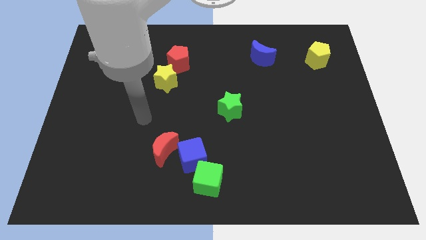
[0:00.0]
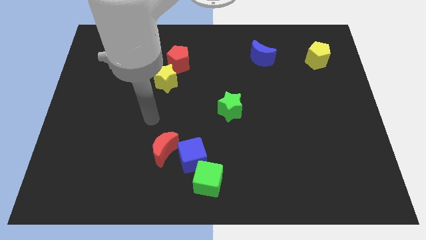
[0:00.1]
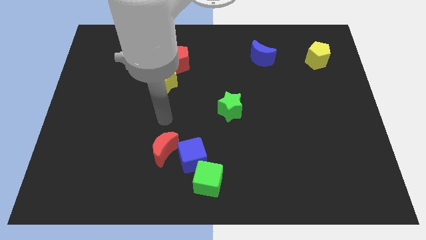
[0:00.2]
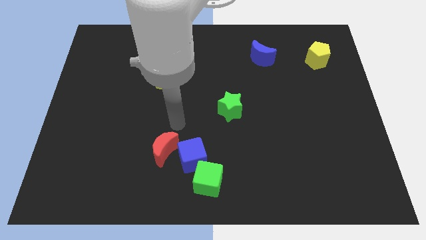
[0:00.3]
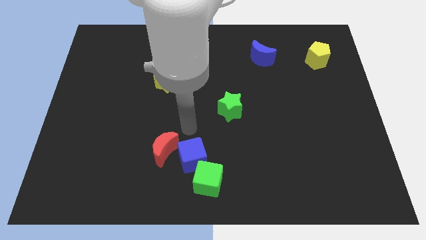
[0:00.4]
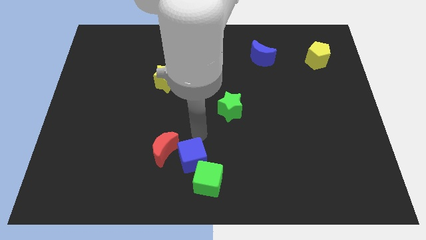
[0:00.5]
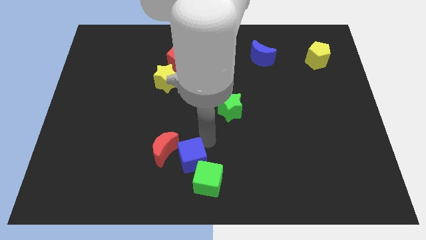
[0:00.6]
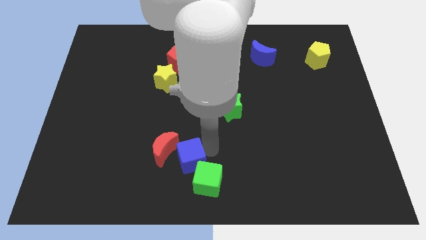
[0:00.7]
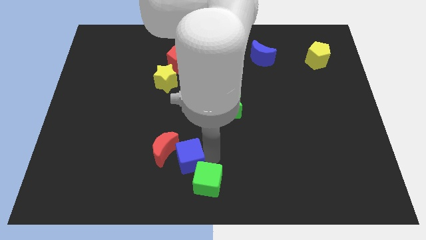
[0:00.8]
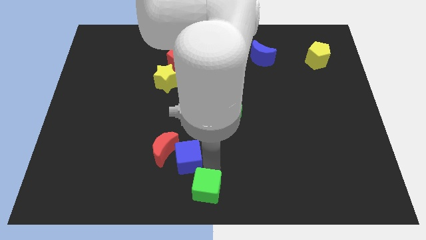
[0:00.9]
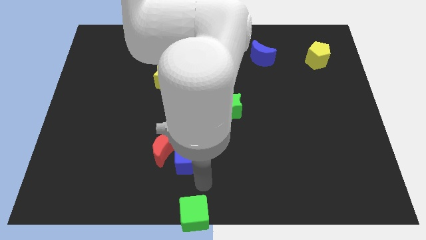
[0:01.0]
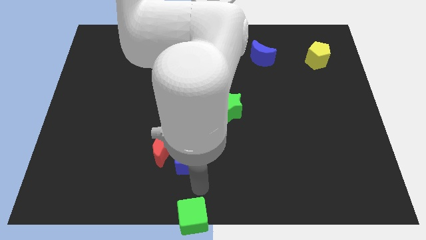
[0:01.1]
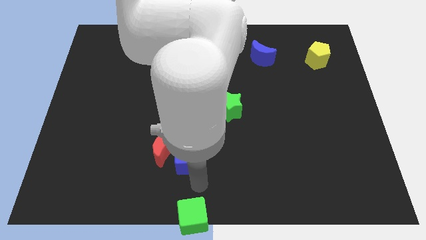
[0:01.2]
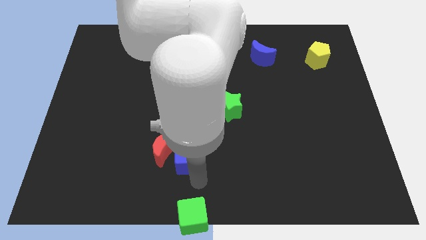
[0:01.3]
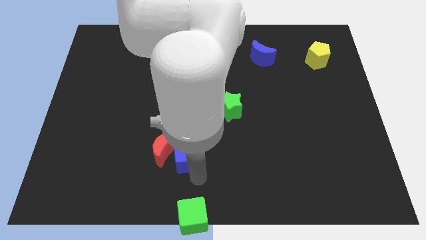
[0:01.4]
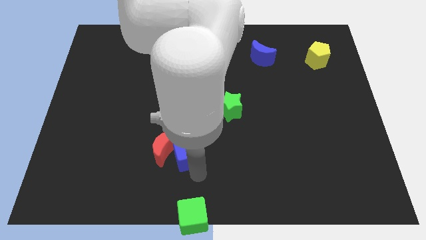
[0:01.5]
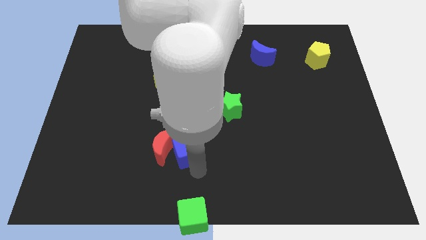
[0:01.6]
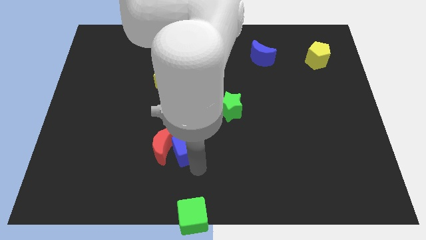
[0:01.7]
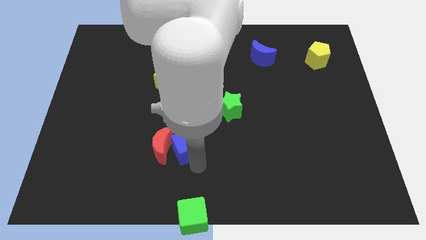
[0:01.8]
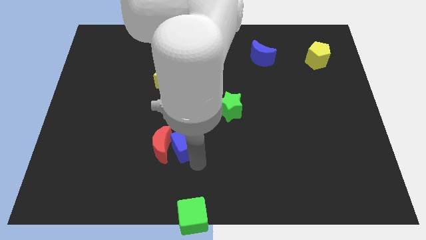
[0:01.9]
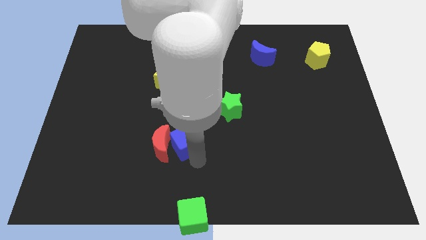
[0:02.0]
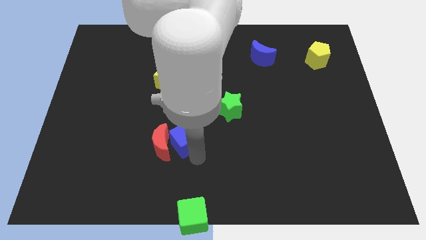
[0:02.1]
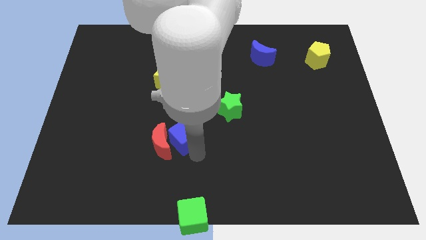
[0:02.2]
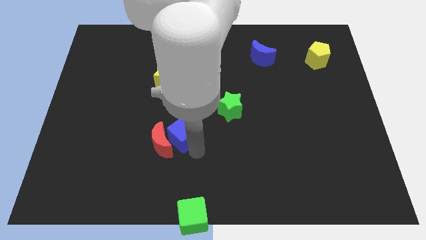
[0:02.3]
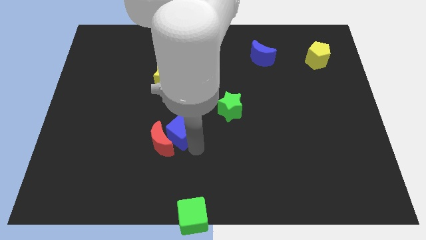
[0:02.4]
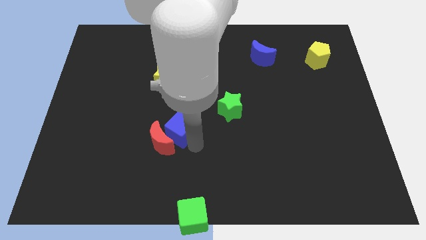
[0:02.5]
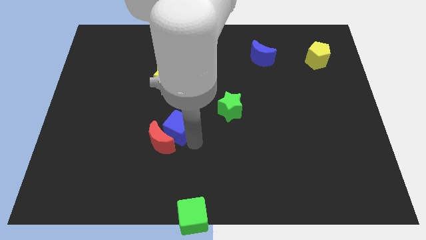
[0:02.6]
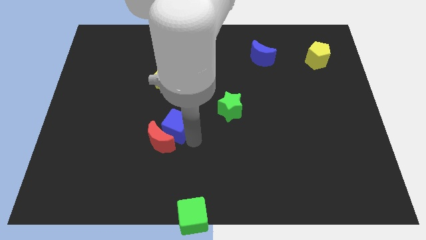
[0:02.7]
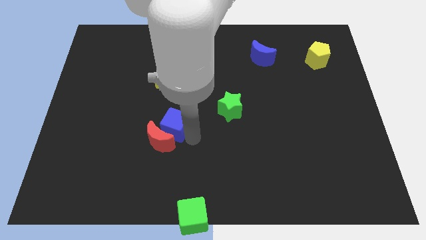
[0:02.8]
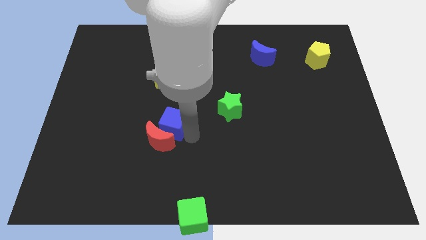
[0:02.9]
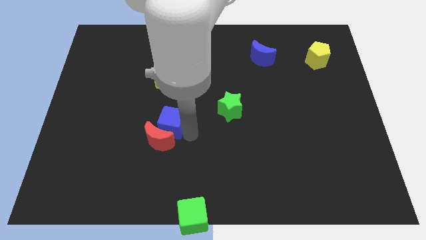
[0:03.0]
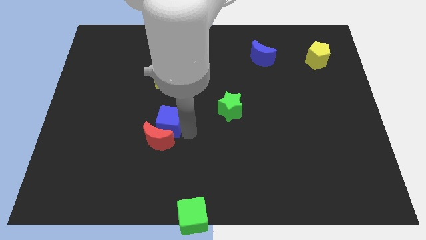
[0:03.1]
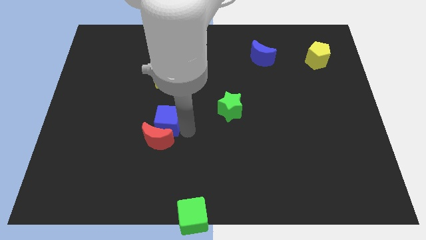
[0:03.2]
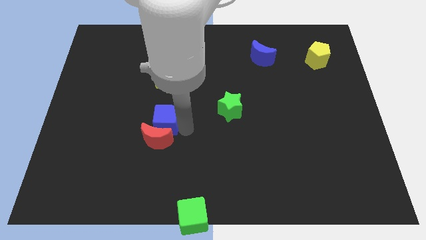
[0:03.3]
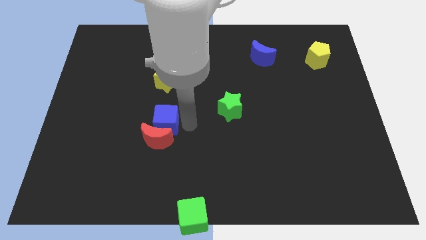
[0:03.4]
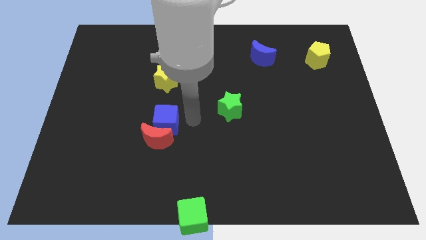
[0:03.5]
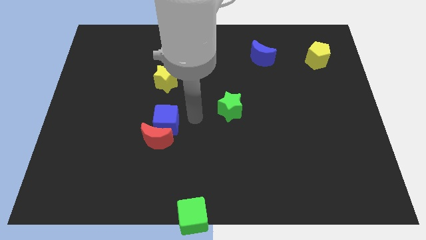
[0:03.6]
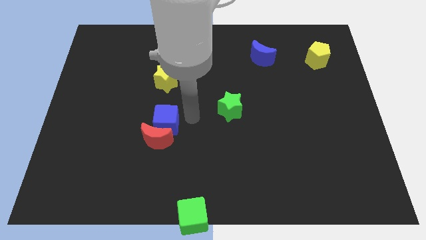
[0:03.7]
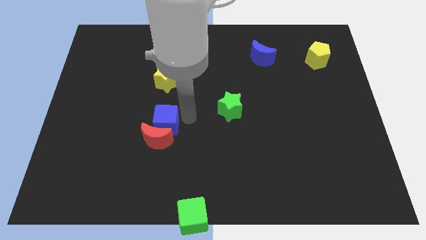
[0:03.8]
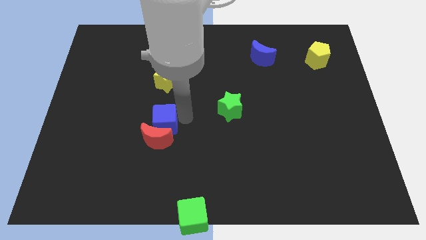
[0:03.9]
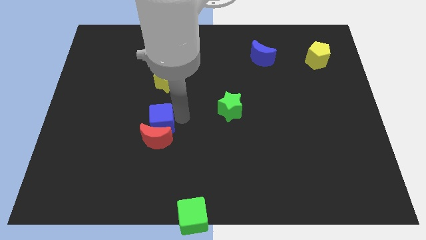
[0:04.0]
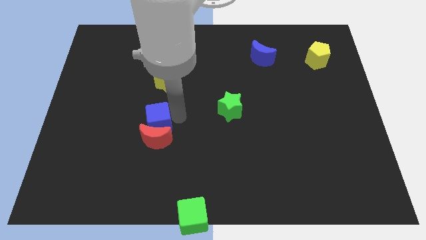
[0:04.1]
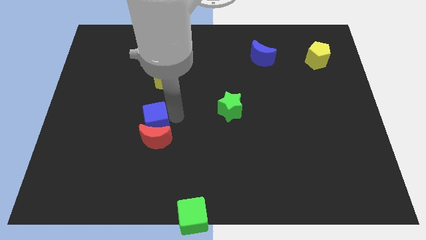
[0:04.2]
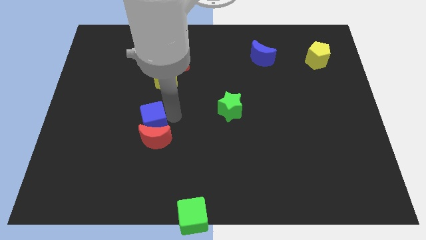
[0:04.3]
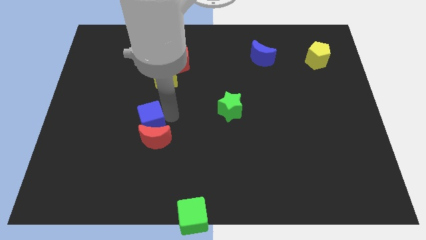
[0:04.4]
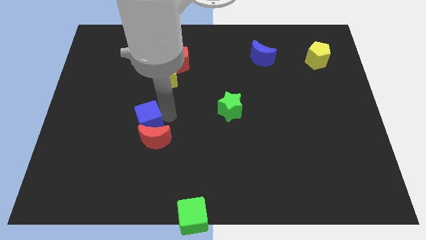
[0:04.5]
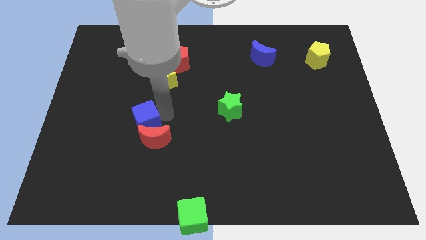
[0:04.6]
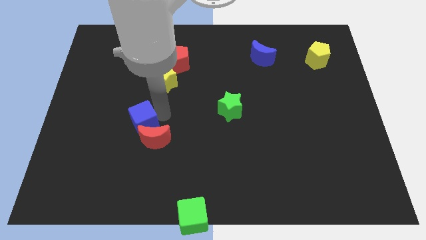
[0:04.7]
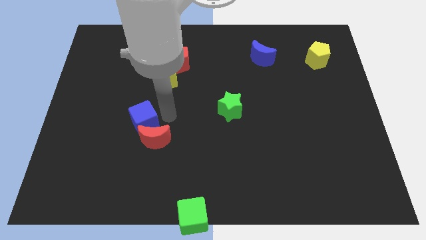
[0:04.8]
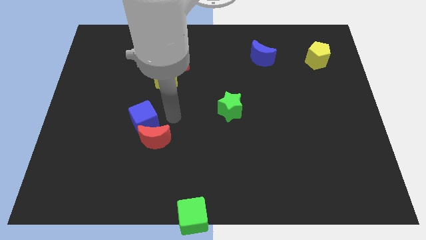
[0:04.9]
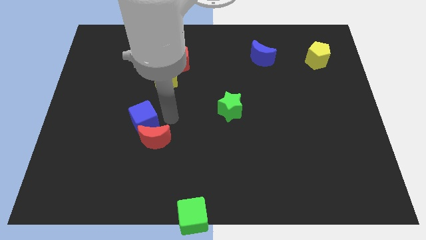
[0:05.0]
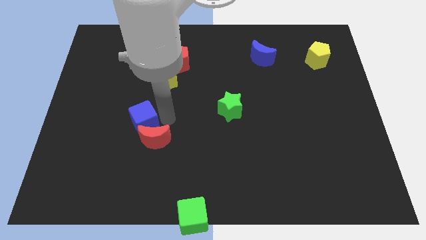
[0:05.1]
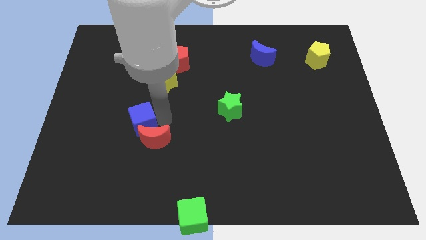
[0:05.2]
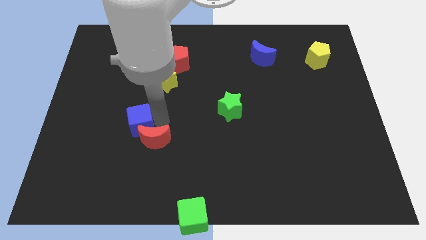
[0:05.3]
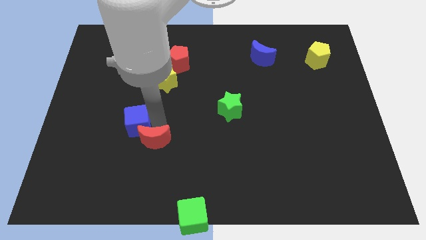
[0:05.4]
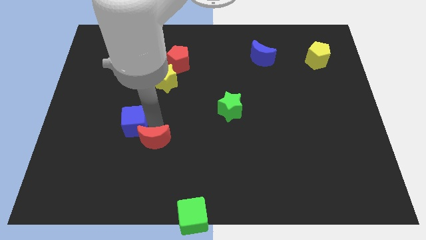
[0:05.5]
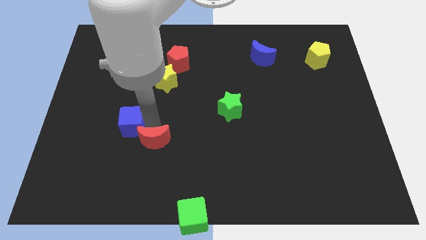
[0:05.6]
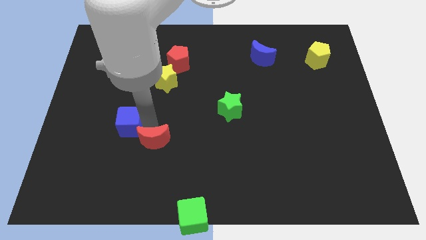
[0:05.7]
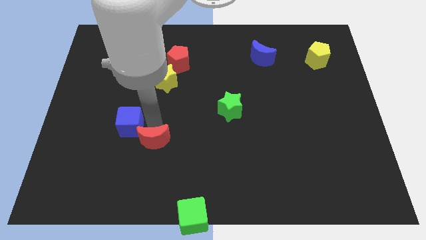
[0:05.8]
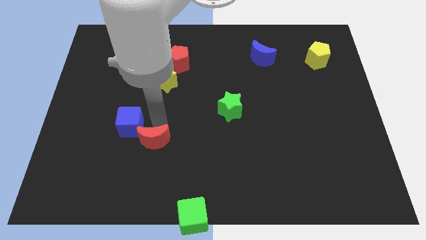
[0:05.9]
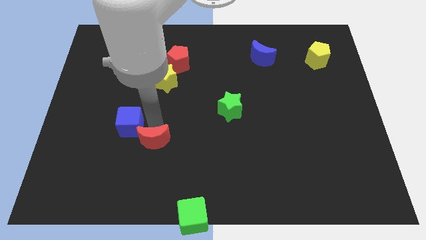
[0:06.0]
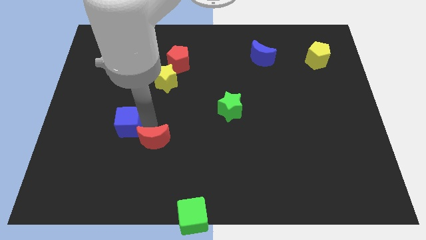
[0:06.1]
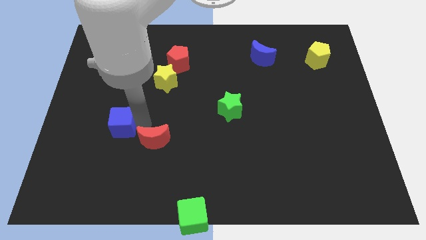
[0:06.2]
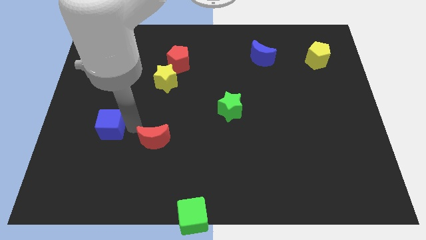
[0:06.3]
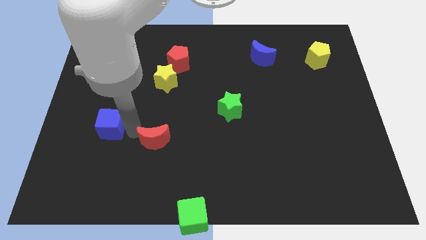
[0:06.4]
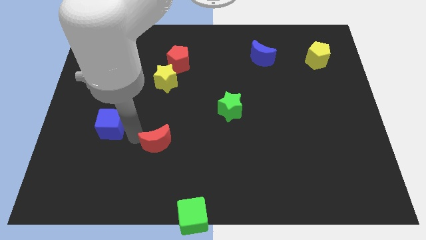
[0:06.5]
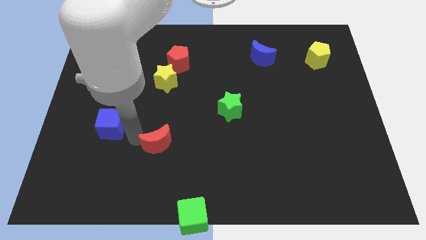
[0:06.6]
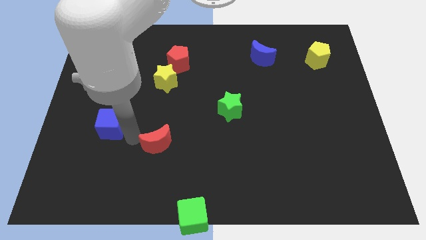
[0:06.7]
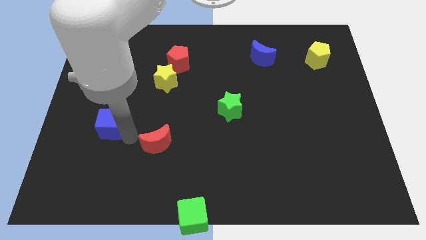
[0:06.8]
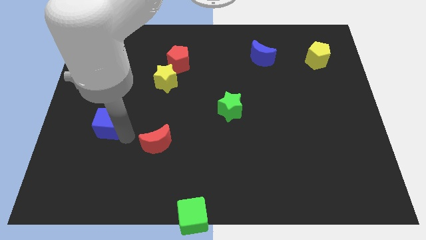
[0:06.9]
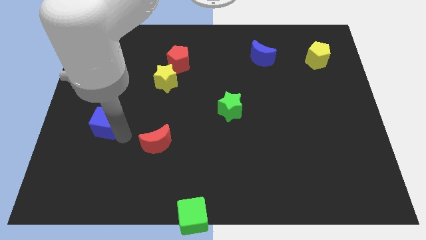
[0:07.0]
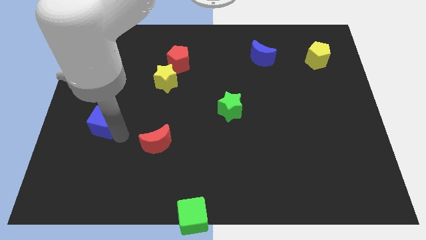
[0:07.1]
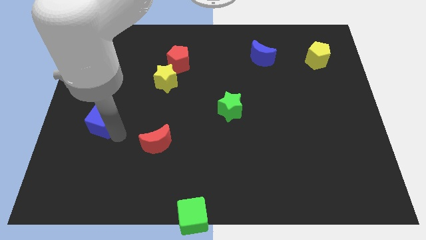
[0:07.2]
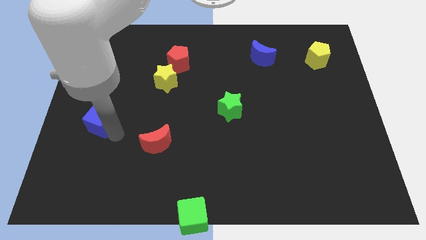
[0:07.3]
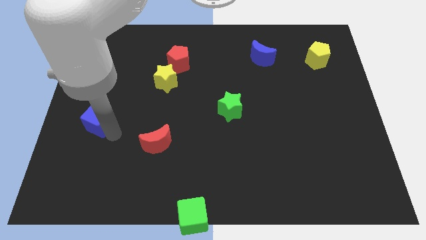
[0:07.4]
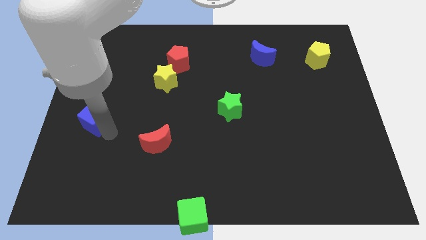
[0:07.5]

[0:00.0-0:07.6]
put the blue cube to the left side
